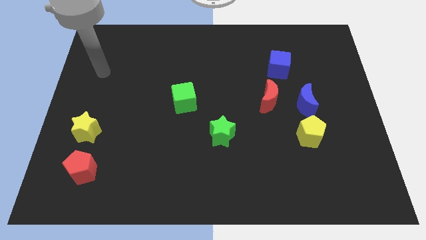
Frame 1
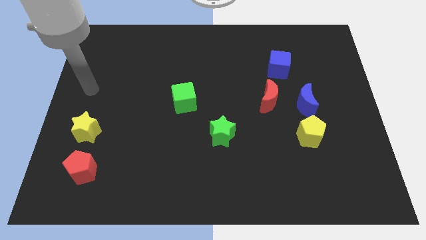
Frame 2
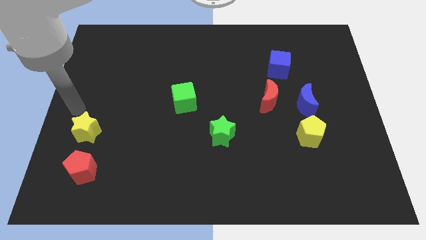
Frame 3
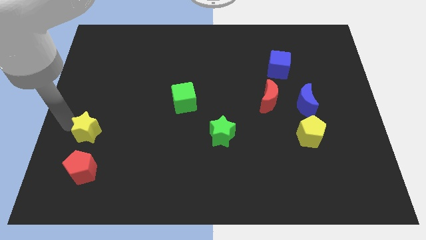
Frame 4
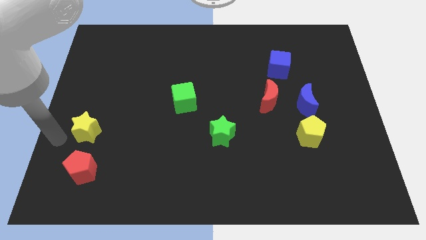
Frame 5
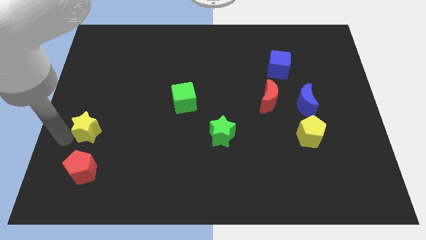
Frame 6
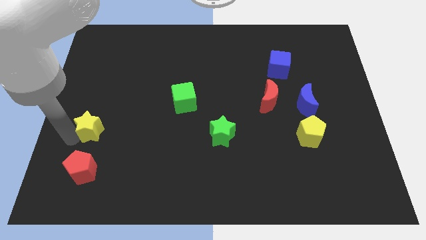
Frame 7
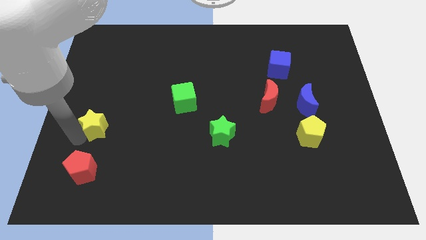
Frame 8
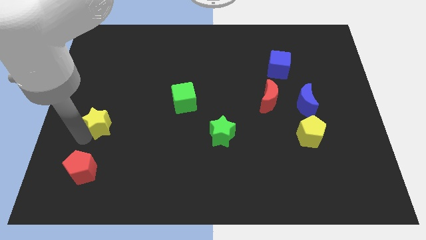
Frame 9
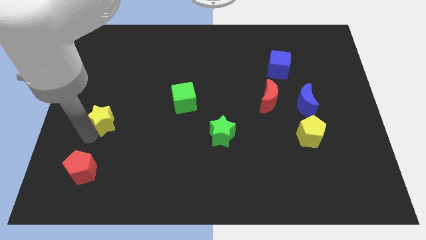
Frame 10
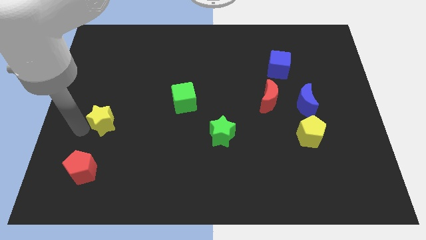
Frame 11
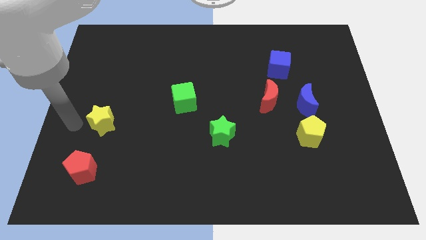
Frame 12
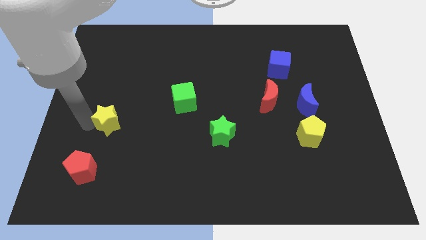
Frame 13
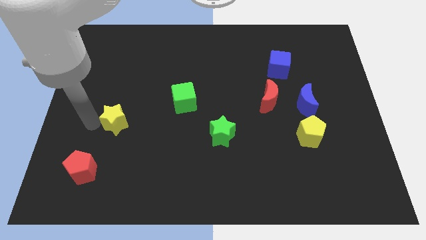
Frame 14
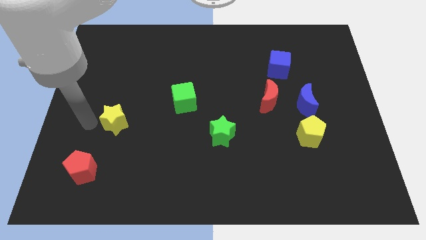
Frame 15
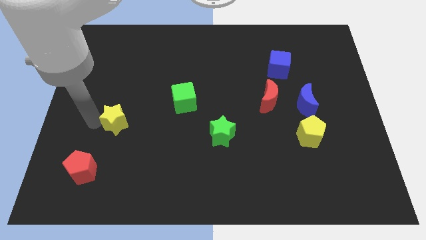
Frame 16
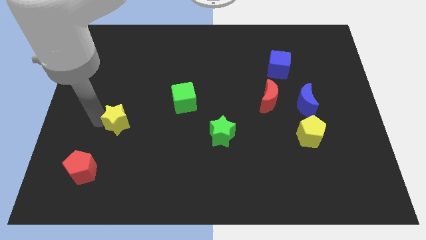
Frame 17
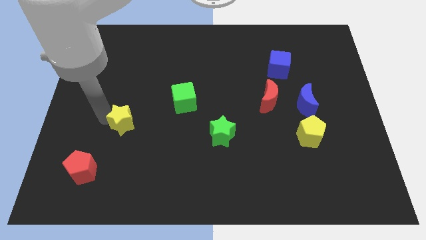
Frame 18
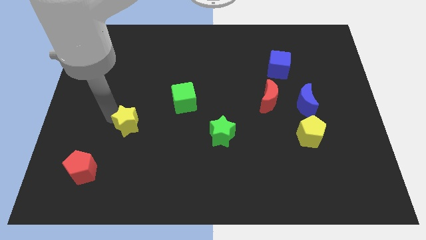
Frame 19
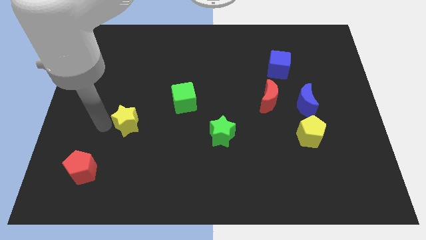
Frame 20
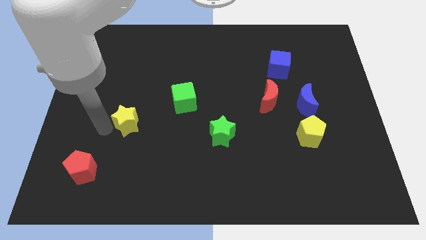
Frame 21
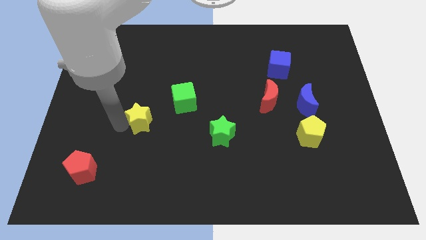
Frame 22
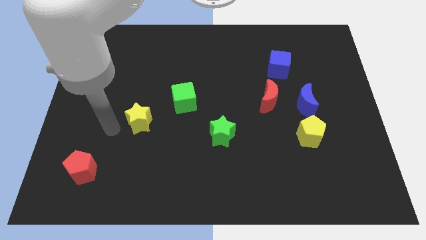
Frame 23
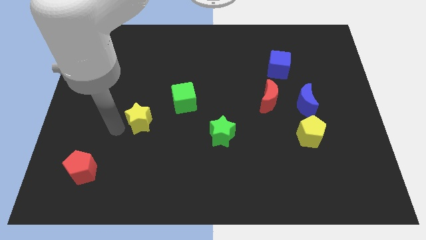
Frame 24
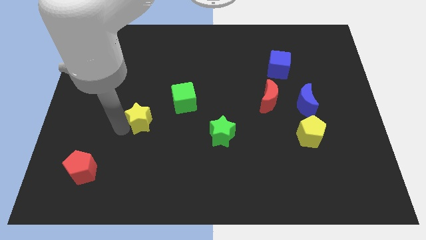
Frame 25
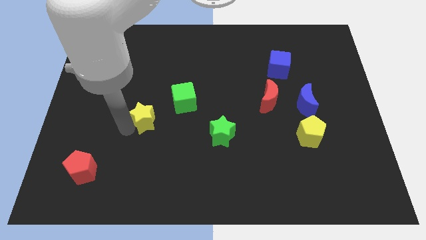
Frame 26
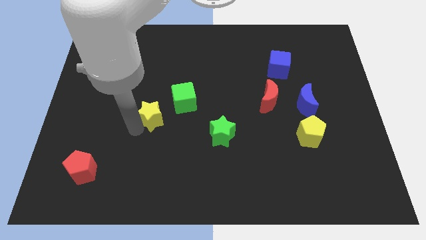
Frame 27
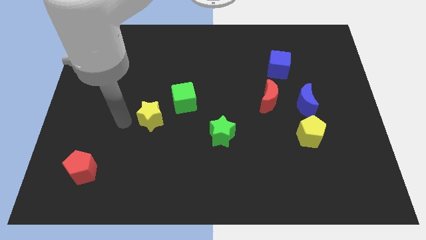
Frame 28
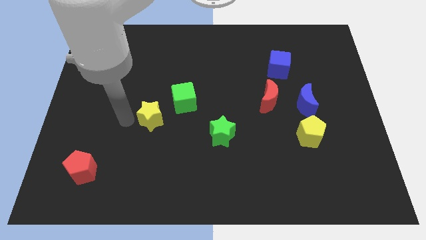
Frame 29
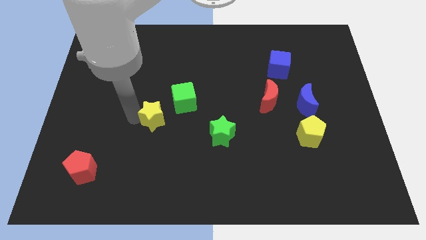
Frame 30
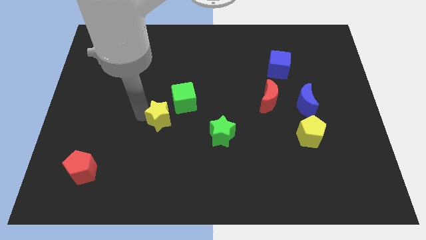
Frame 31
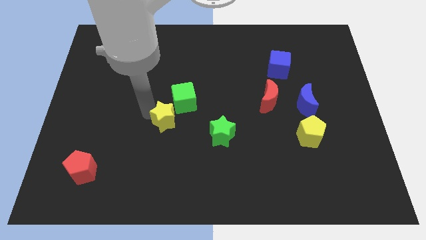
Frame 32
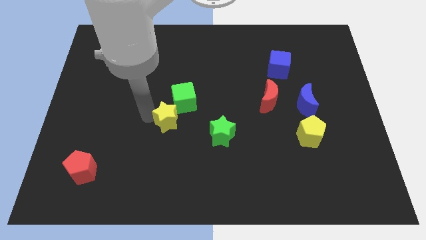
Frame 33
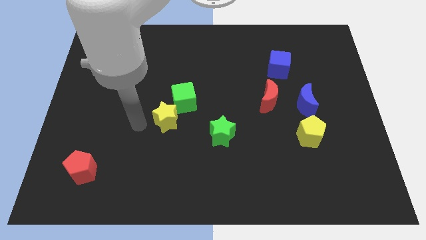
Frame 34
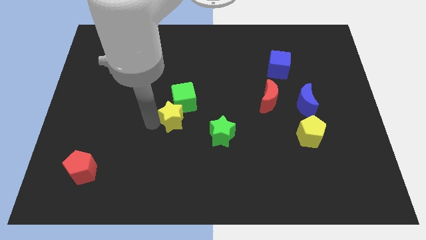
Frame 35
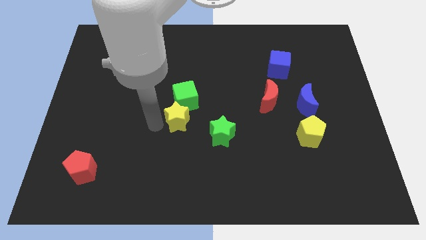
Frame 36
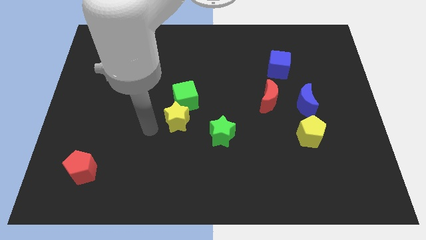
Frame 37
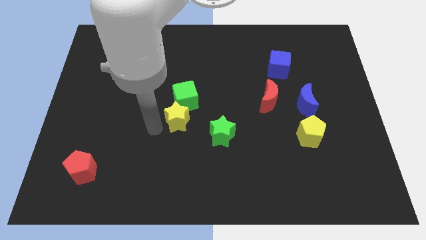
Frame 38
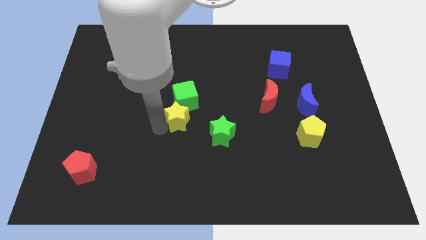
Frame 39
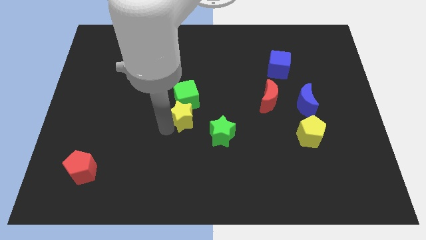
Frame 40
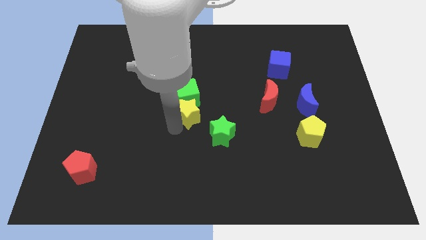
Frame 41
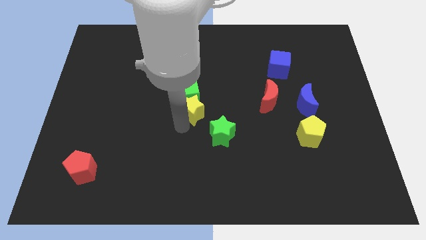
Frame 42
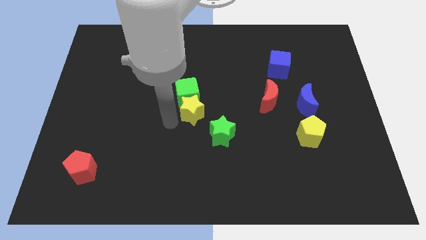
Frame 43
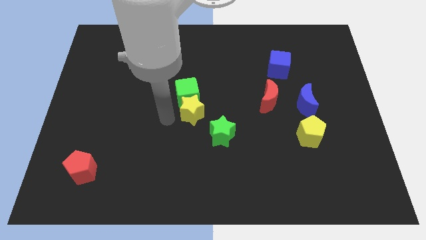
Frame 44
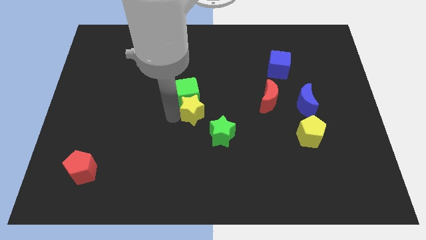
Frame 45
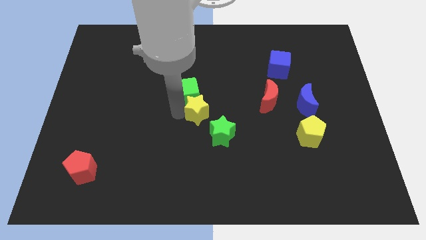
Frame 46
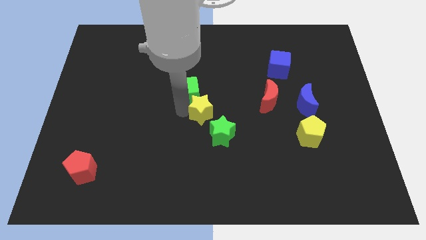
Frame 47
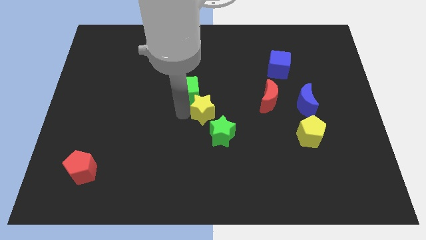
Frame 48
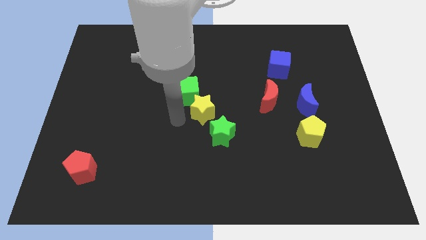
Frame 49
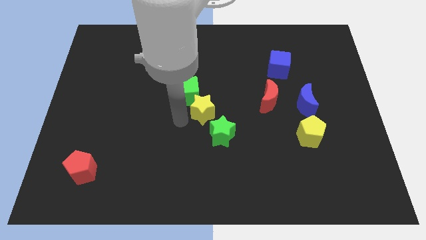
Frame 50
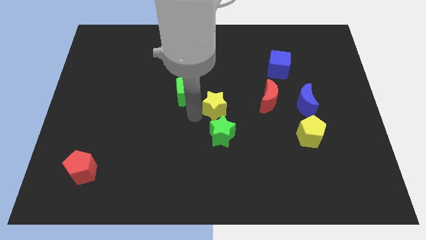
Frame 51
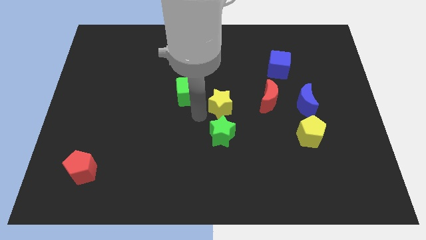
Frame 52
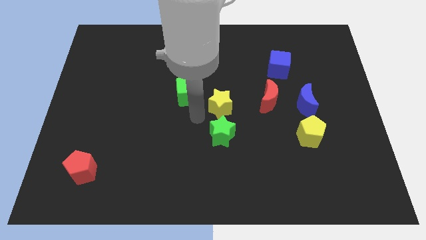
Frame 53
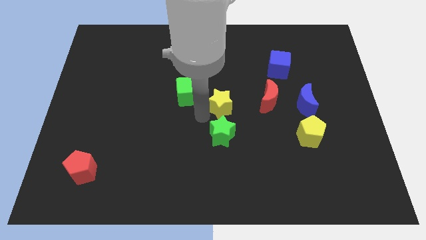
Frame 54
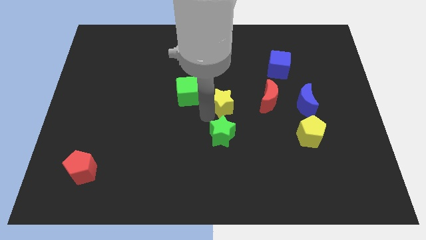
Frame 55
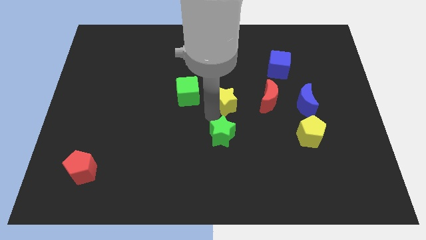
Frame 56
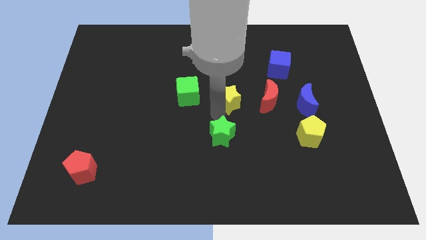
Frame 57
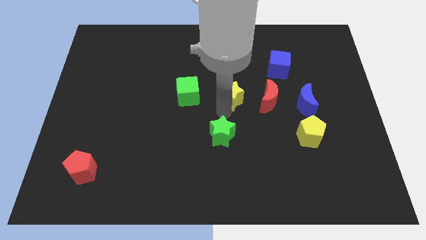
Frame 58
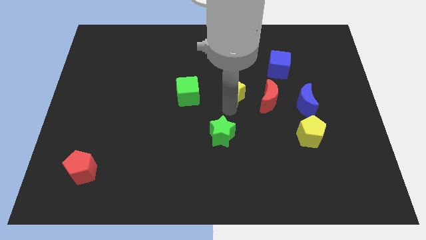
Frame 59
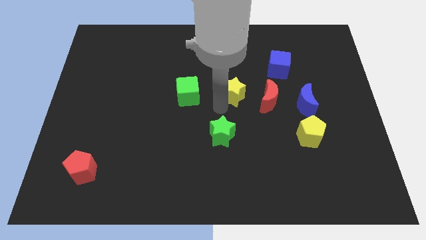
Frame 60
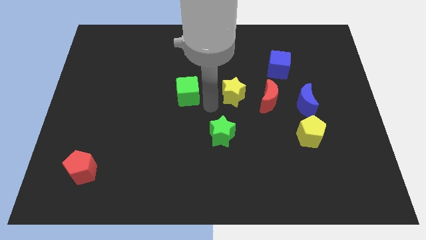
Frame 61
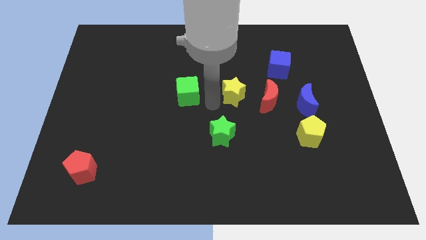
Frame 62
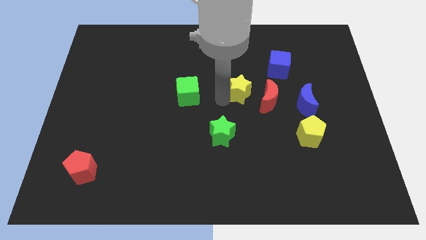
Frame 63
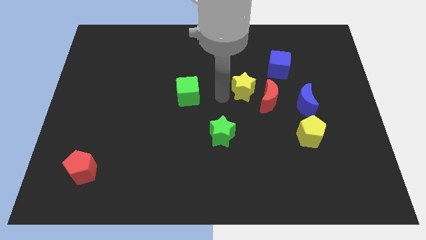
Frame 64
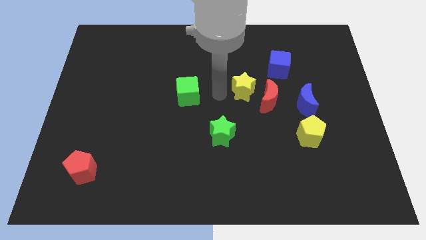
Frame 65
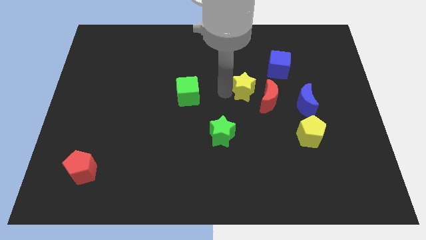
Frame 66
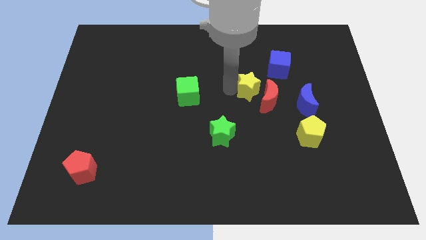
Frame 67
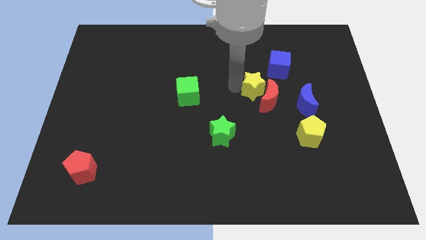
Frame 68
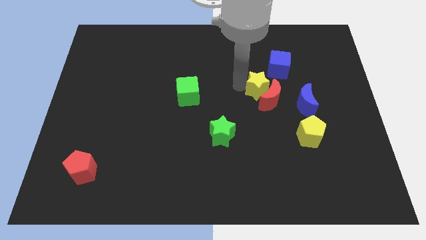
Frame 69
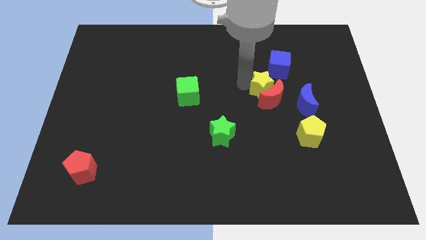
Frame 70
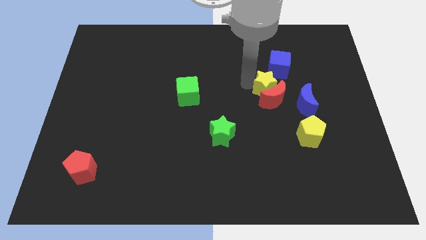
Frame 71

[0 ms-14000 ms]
slide the yellow star to the top right of the red moon
